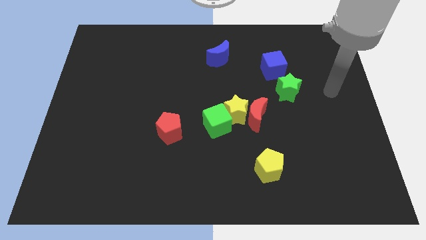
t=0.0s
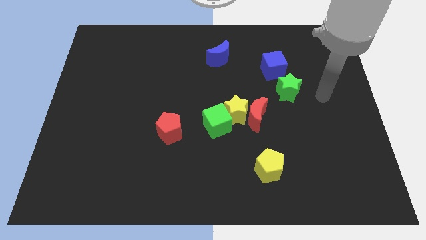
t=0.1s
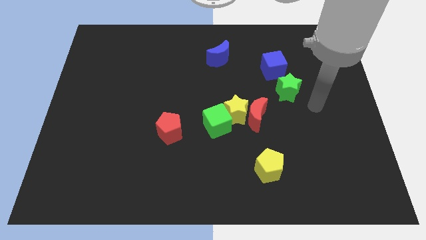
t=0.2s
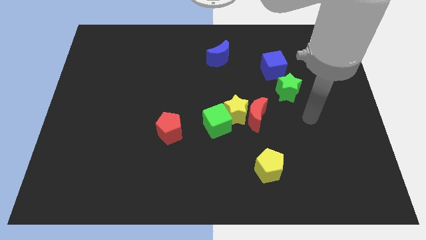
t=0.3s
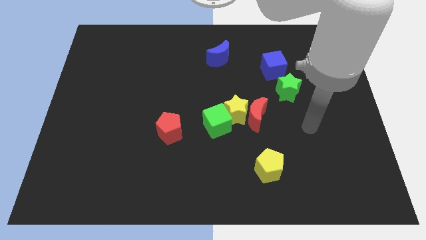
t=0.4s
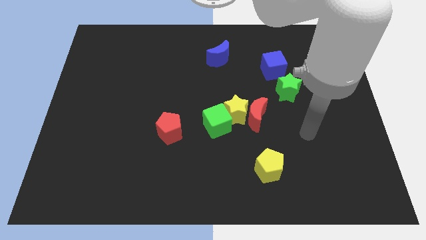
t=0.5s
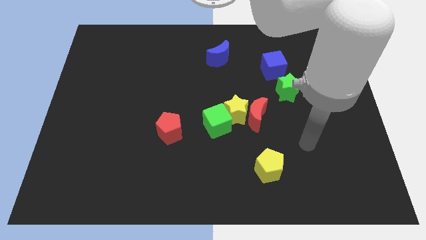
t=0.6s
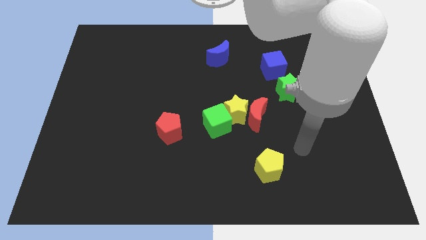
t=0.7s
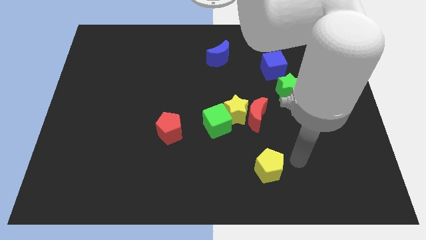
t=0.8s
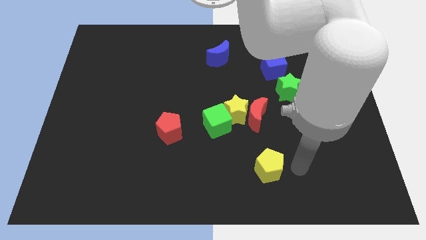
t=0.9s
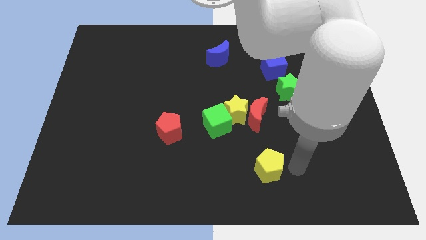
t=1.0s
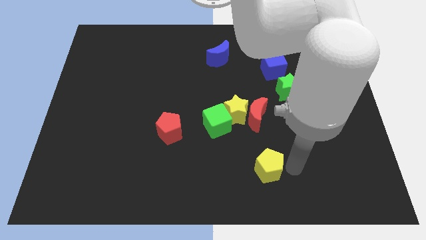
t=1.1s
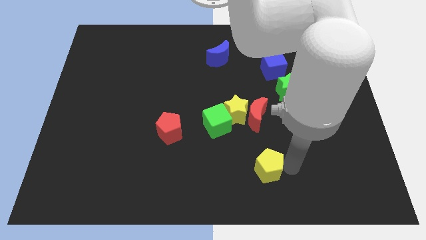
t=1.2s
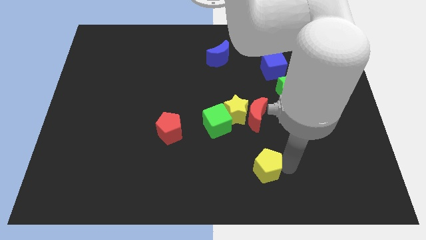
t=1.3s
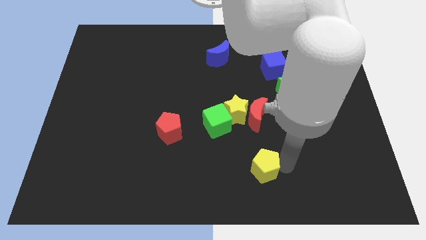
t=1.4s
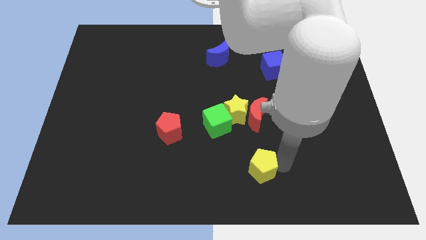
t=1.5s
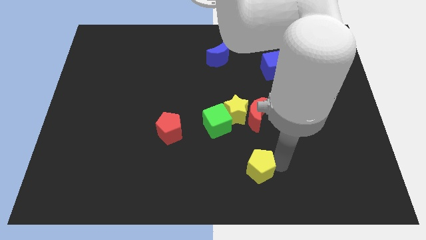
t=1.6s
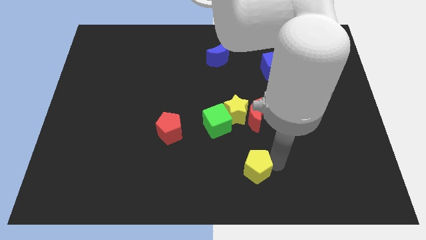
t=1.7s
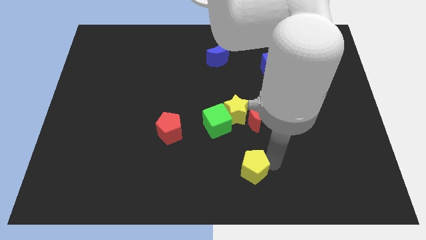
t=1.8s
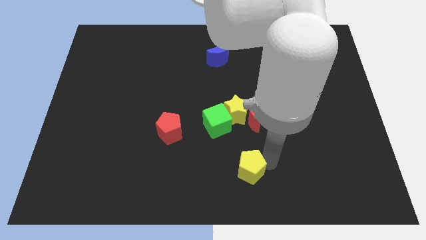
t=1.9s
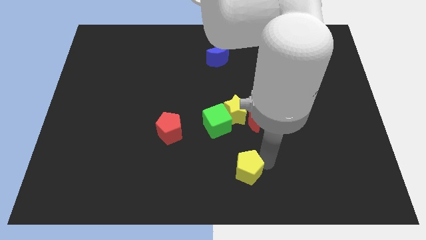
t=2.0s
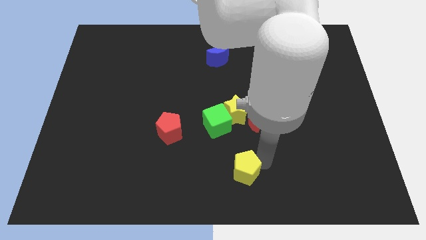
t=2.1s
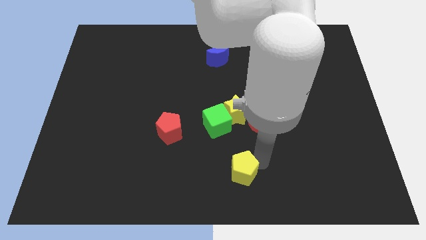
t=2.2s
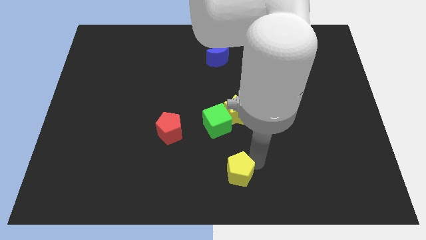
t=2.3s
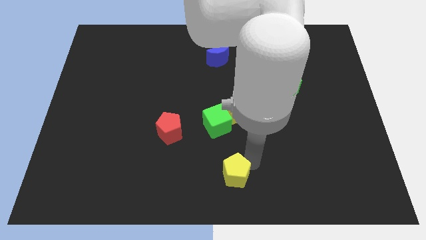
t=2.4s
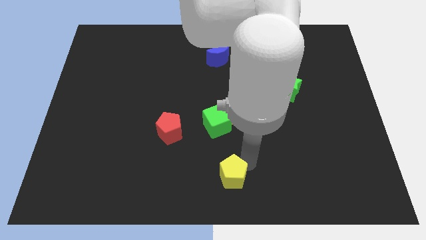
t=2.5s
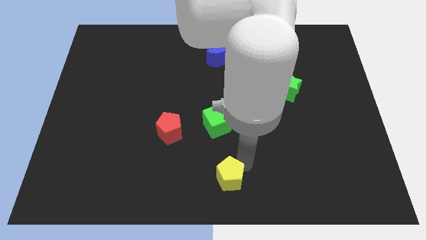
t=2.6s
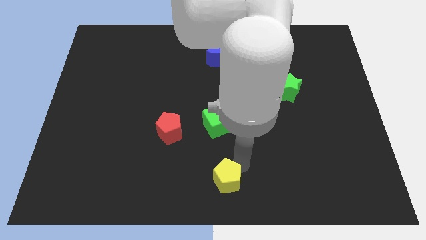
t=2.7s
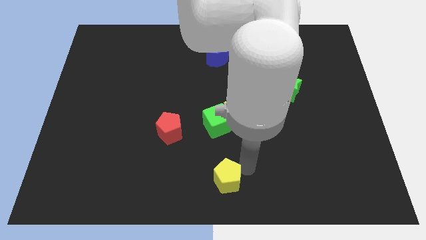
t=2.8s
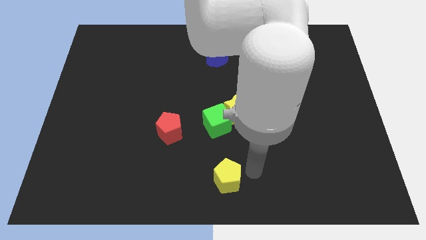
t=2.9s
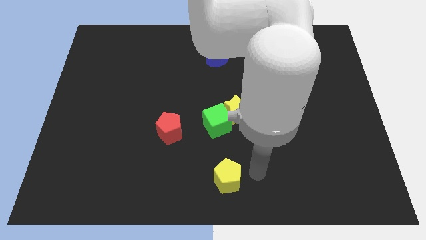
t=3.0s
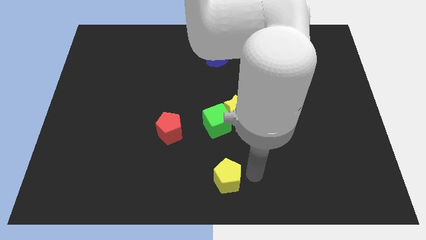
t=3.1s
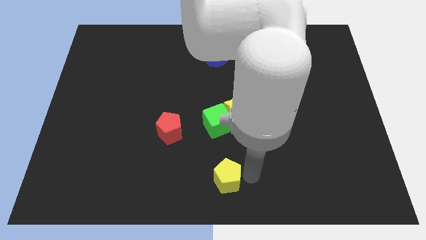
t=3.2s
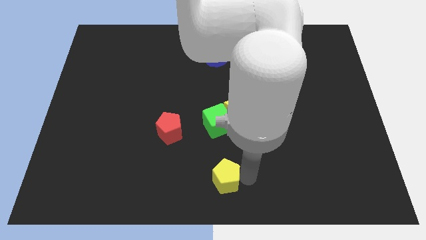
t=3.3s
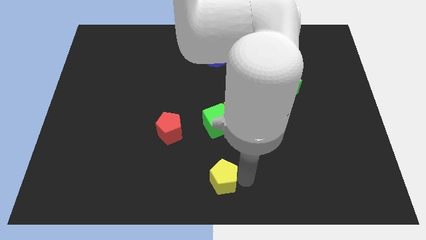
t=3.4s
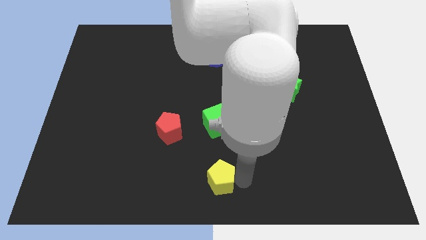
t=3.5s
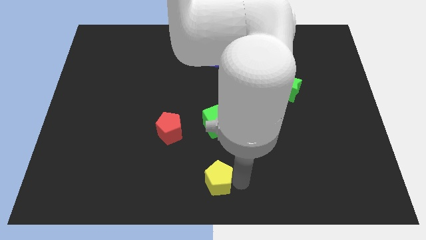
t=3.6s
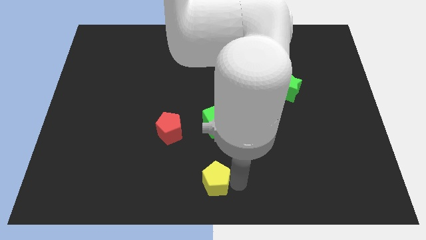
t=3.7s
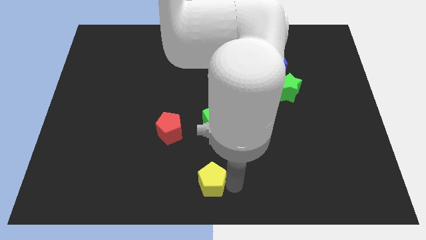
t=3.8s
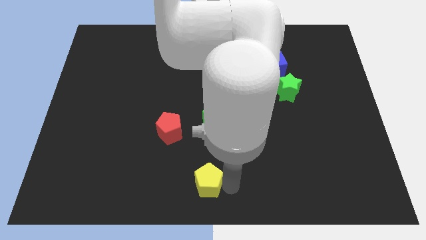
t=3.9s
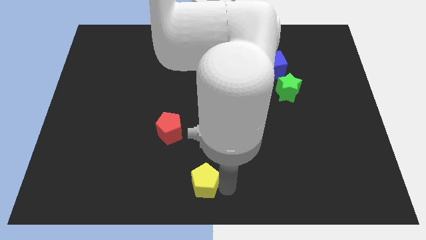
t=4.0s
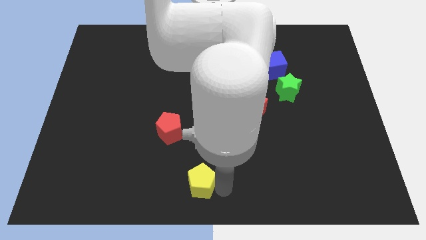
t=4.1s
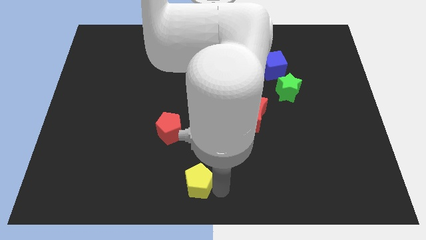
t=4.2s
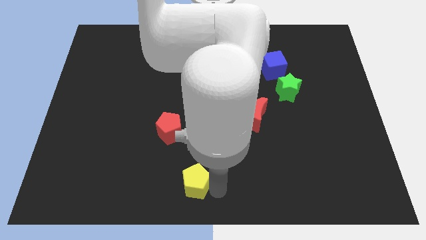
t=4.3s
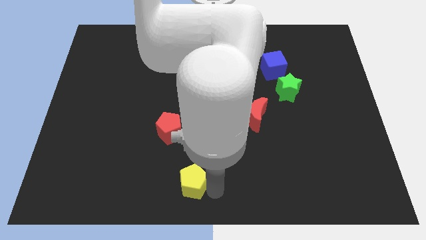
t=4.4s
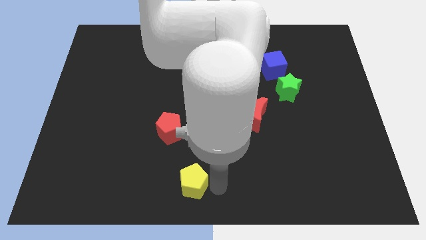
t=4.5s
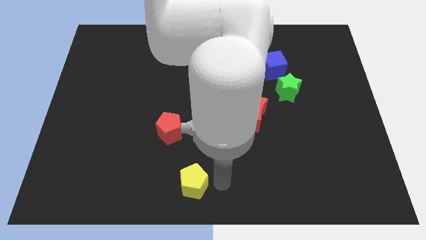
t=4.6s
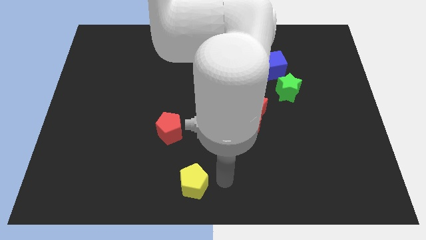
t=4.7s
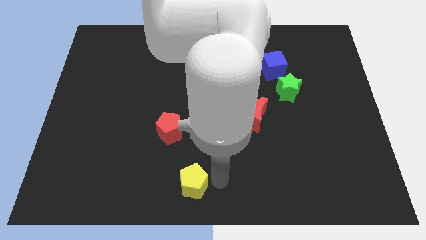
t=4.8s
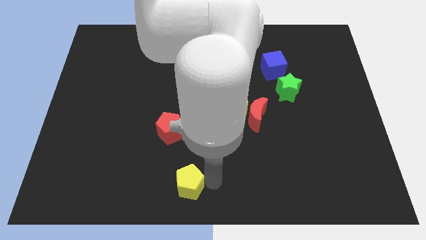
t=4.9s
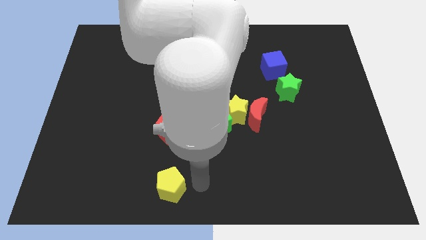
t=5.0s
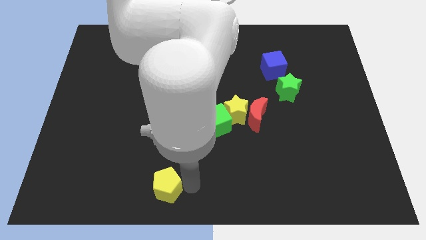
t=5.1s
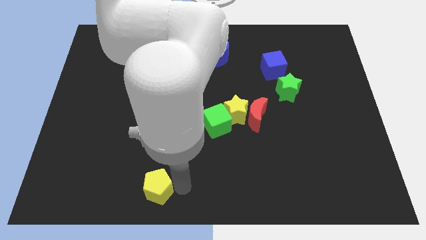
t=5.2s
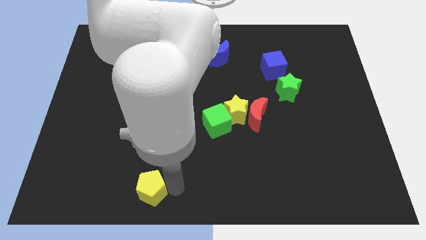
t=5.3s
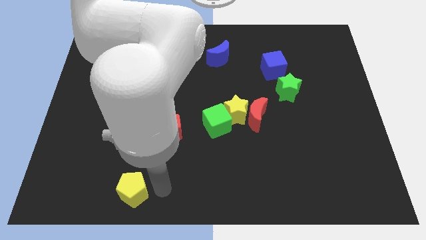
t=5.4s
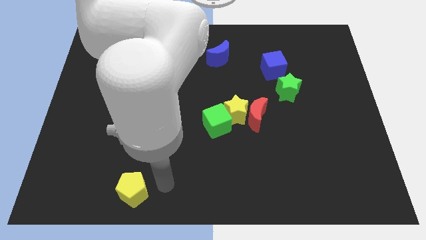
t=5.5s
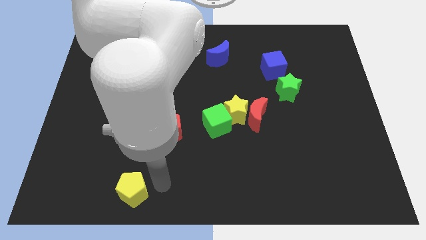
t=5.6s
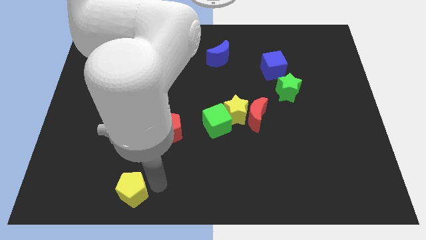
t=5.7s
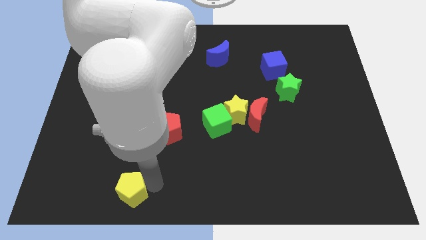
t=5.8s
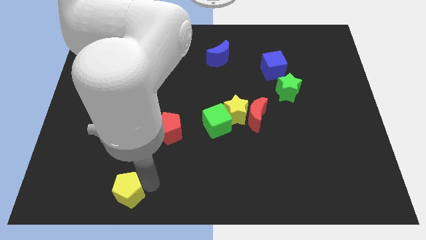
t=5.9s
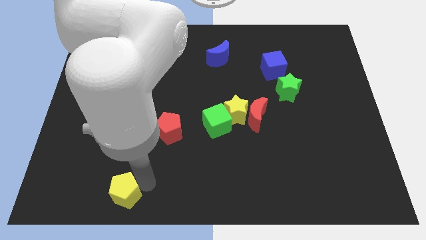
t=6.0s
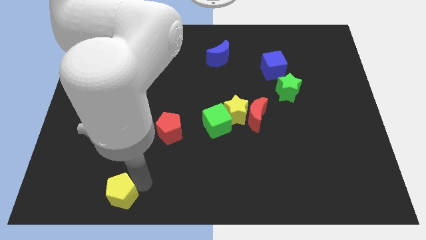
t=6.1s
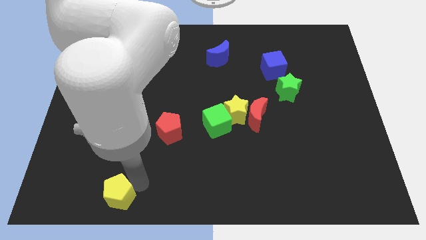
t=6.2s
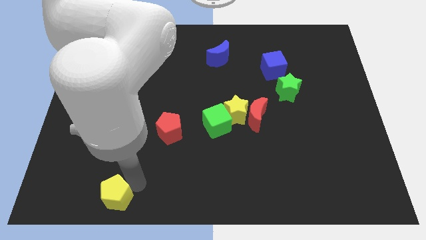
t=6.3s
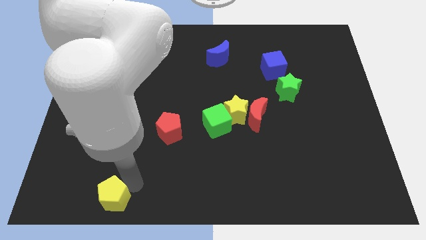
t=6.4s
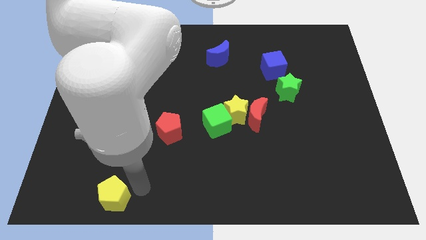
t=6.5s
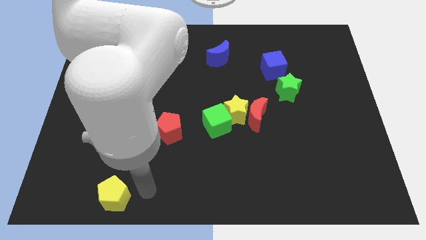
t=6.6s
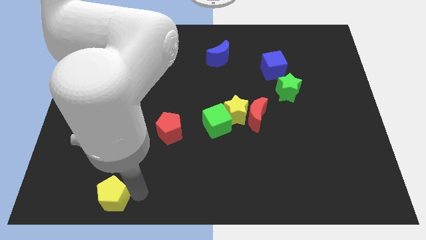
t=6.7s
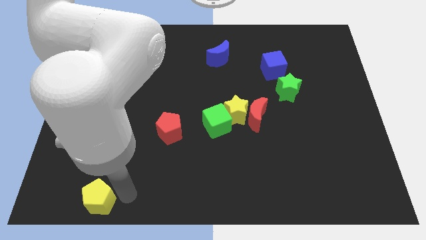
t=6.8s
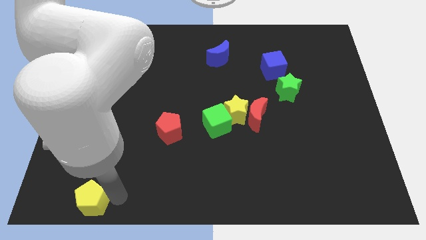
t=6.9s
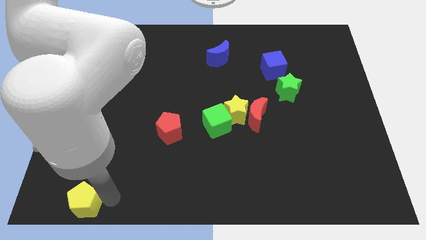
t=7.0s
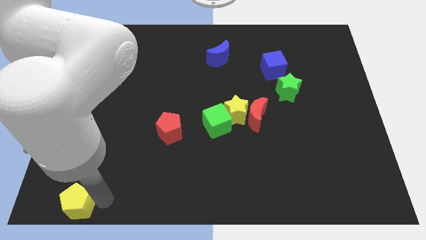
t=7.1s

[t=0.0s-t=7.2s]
put the yellow pentagon to the bottom left
